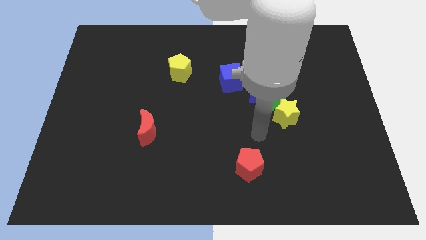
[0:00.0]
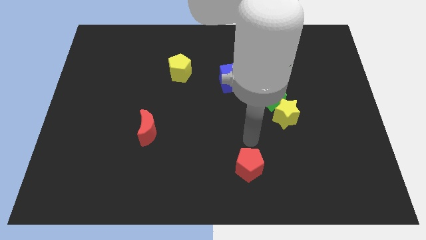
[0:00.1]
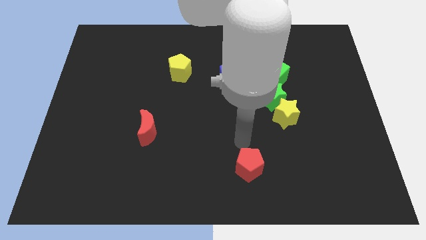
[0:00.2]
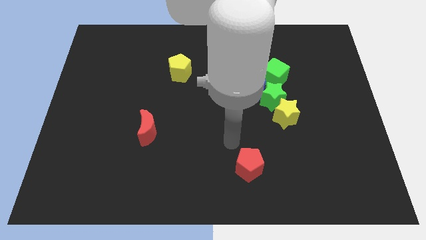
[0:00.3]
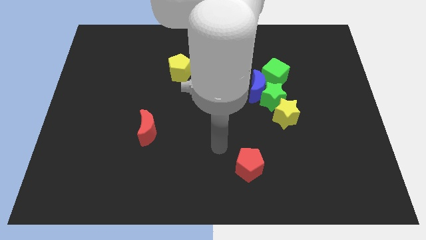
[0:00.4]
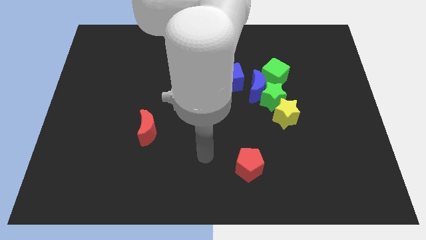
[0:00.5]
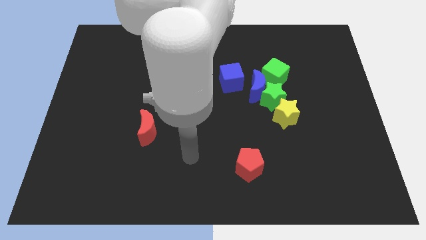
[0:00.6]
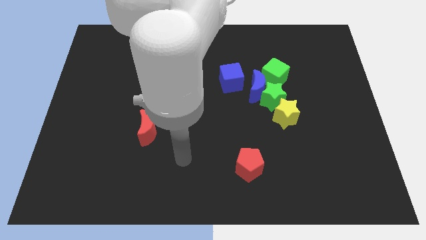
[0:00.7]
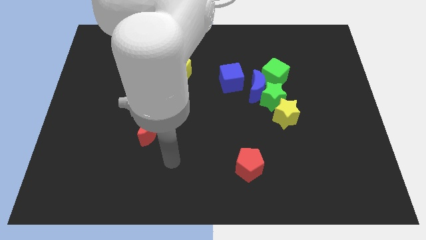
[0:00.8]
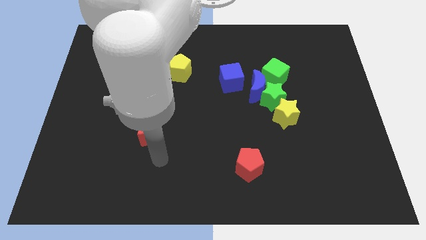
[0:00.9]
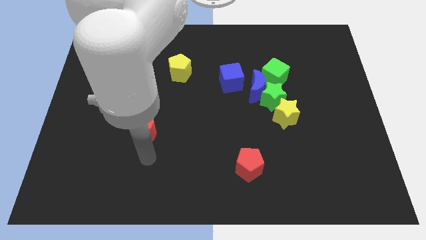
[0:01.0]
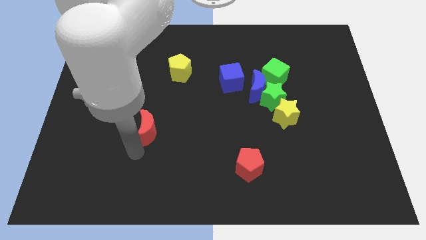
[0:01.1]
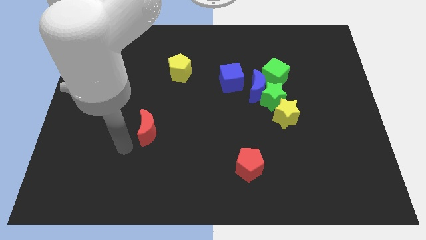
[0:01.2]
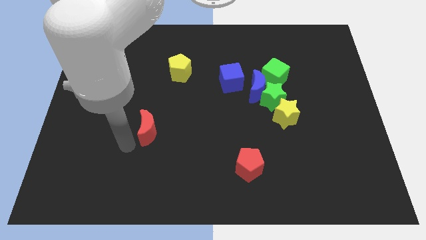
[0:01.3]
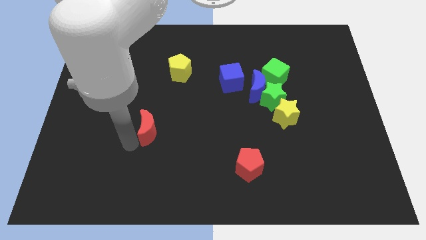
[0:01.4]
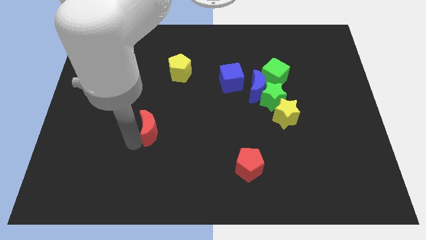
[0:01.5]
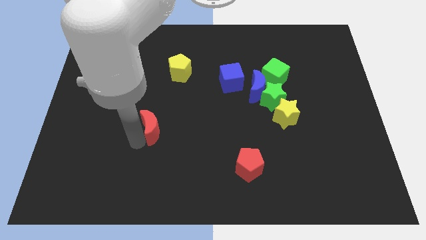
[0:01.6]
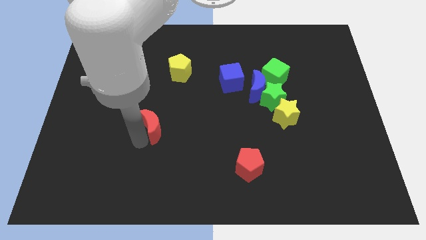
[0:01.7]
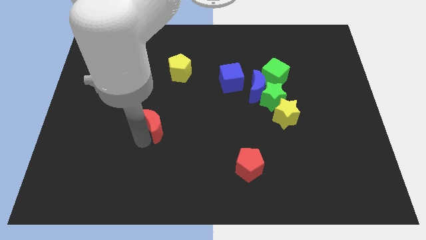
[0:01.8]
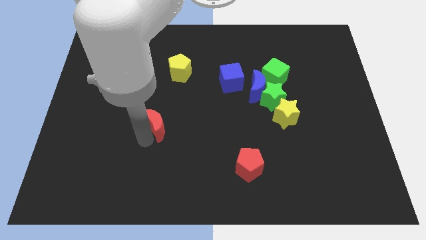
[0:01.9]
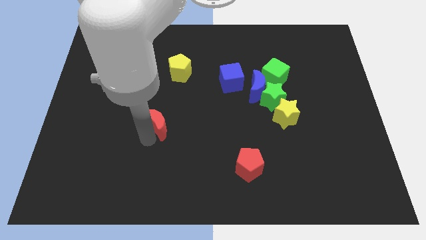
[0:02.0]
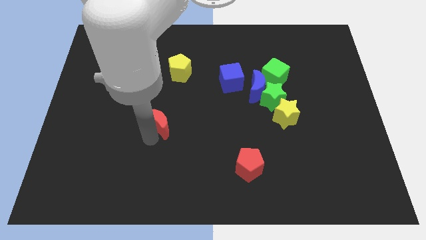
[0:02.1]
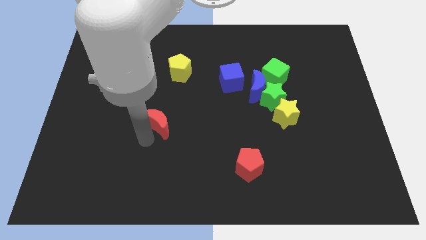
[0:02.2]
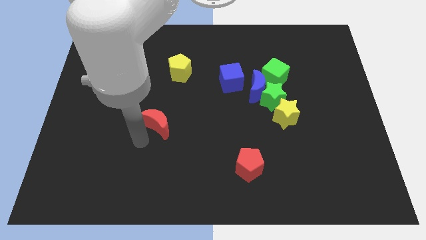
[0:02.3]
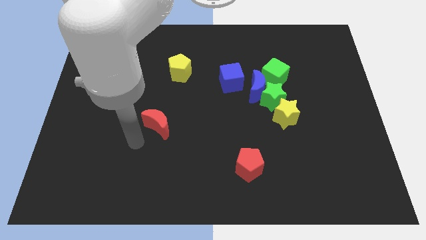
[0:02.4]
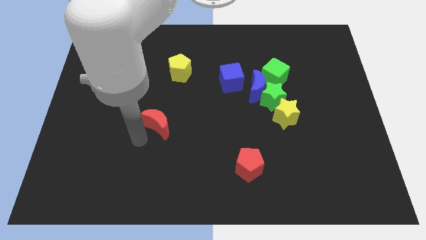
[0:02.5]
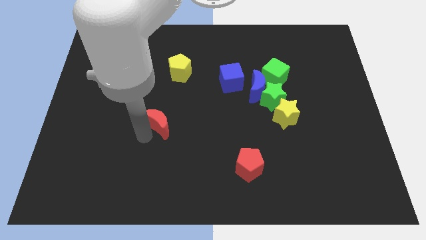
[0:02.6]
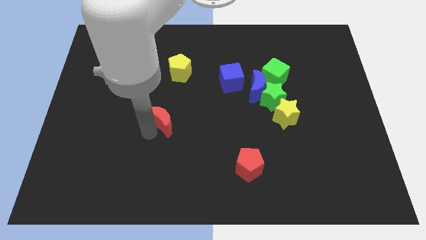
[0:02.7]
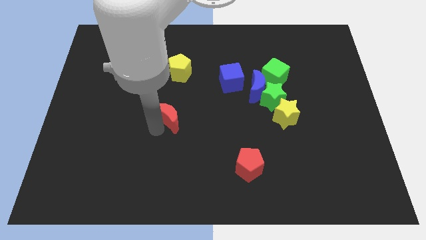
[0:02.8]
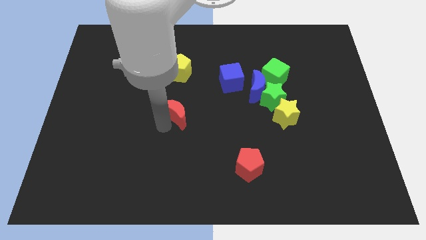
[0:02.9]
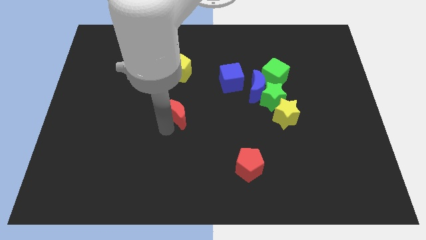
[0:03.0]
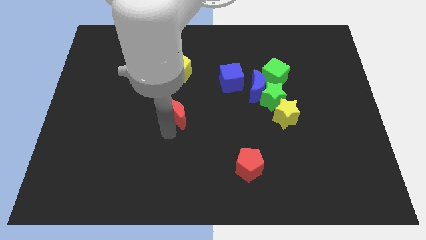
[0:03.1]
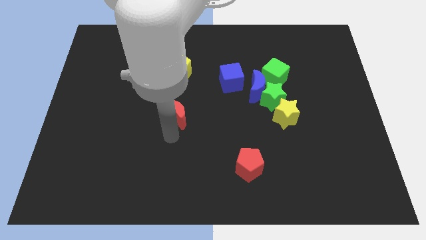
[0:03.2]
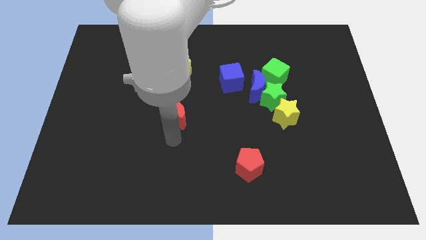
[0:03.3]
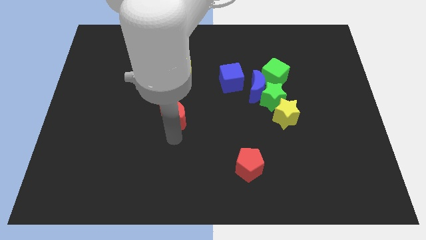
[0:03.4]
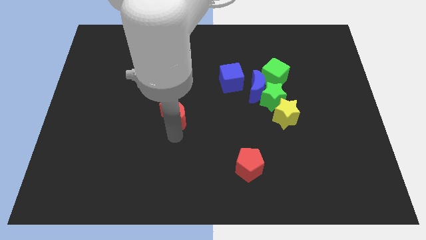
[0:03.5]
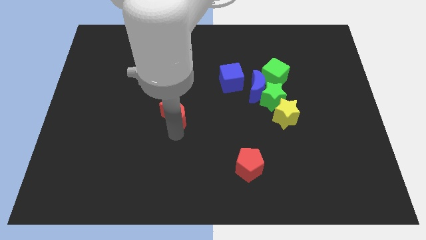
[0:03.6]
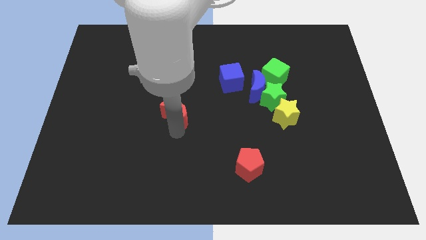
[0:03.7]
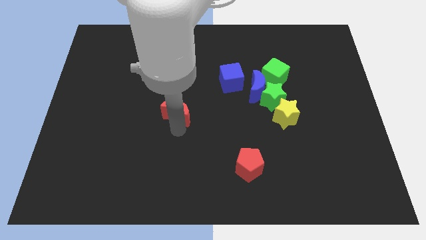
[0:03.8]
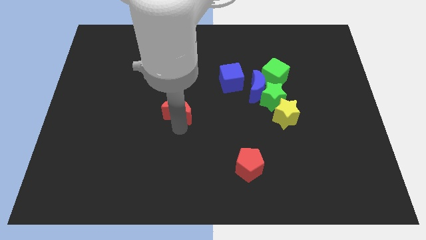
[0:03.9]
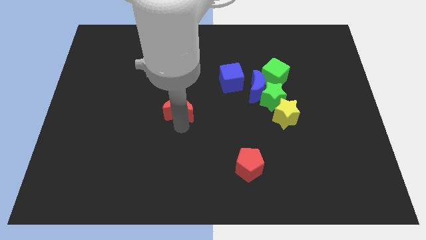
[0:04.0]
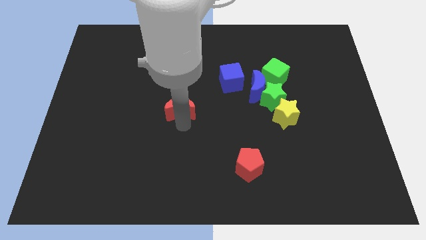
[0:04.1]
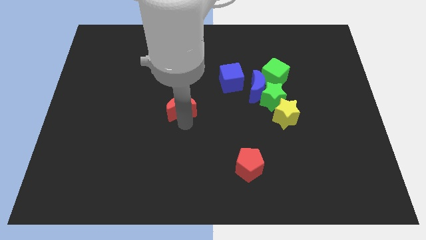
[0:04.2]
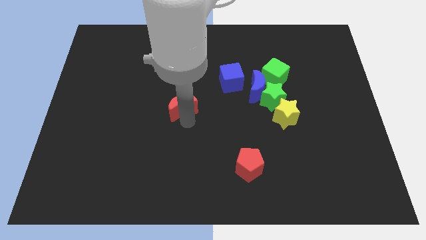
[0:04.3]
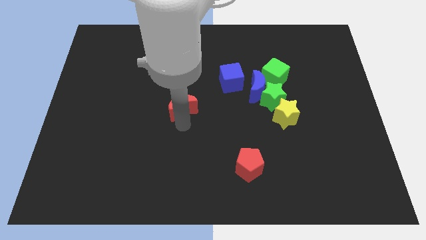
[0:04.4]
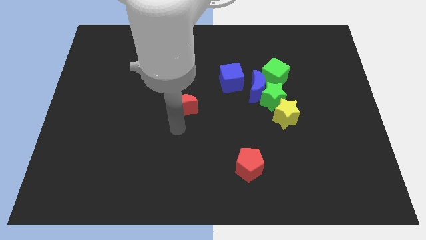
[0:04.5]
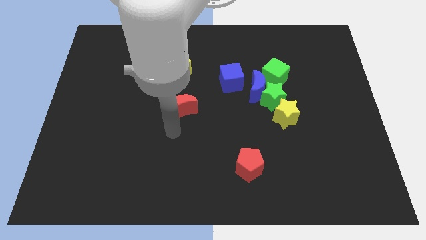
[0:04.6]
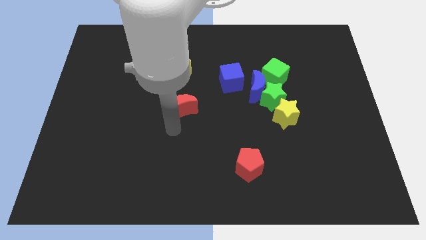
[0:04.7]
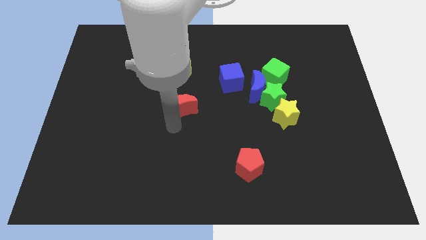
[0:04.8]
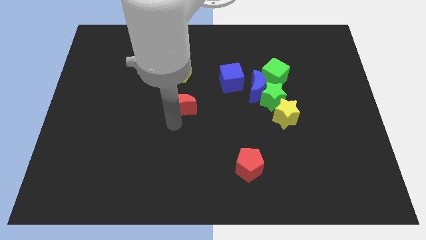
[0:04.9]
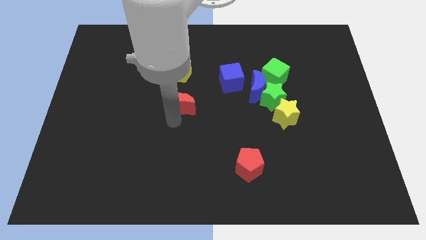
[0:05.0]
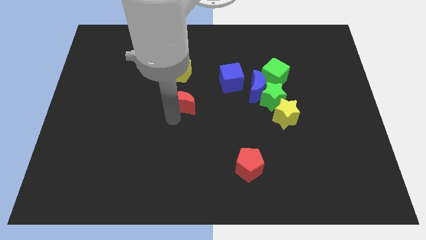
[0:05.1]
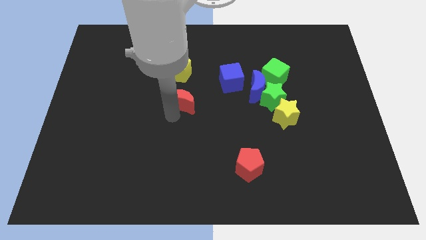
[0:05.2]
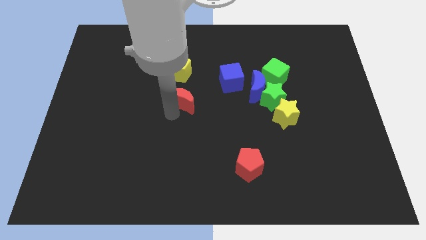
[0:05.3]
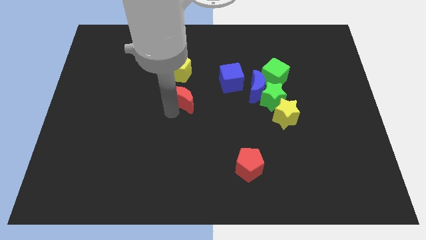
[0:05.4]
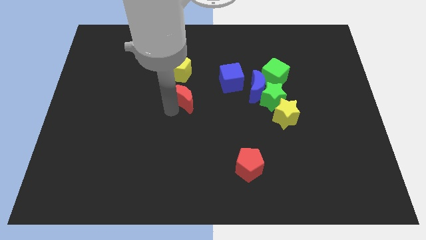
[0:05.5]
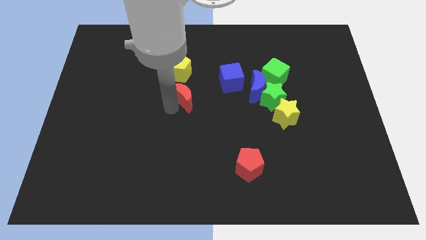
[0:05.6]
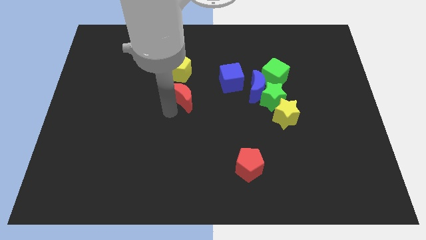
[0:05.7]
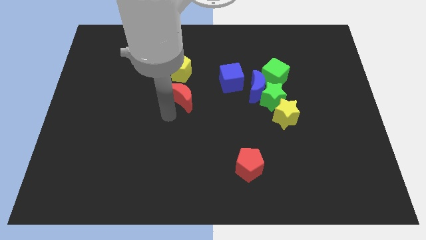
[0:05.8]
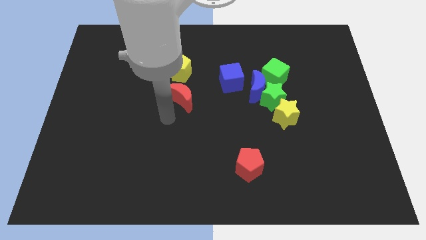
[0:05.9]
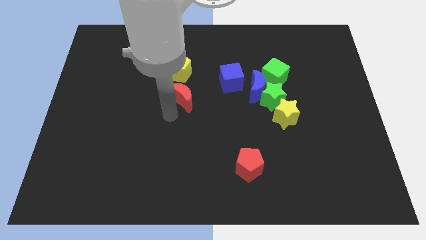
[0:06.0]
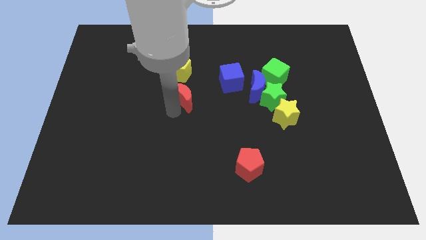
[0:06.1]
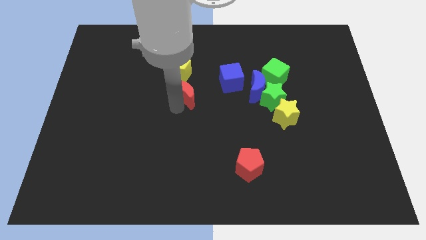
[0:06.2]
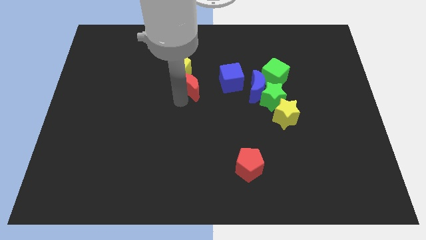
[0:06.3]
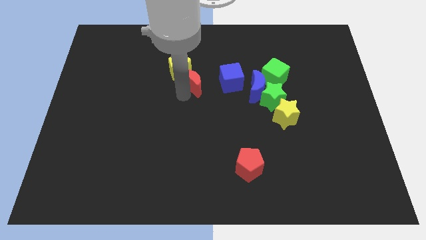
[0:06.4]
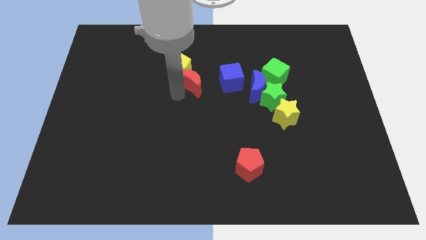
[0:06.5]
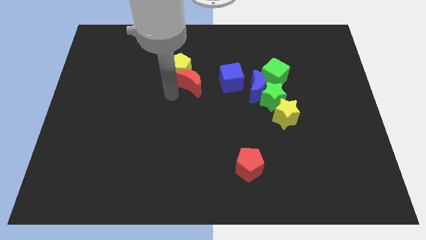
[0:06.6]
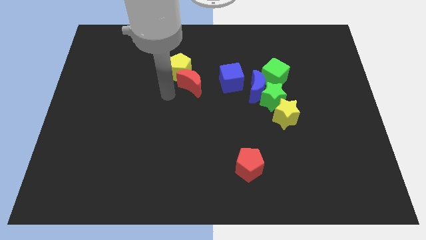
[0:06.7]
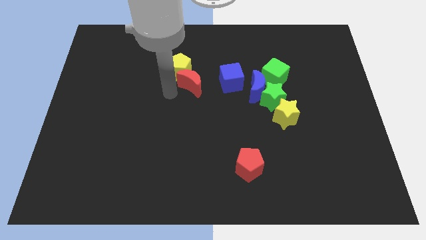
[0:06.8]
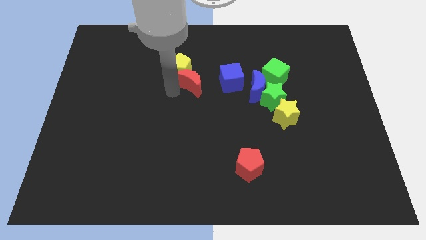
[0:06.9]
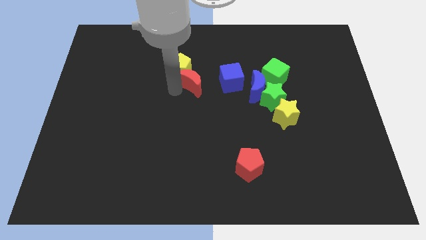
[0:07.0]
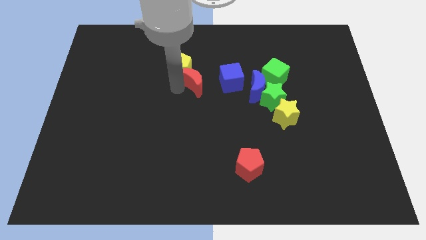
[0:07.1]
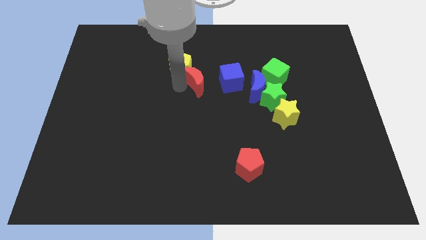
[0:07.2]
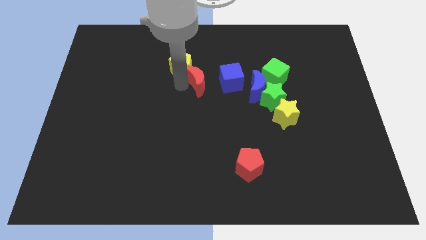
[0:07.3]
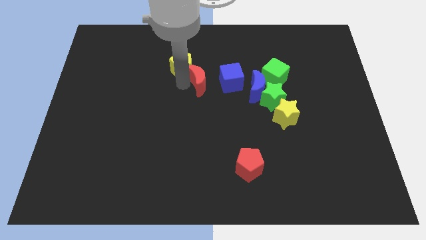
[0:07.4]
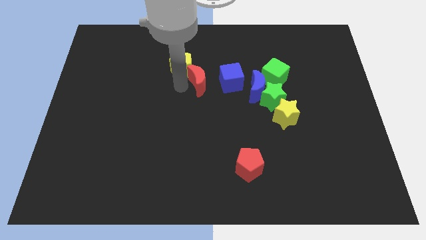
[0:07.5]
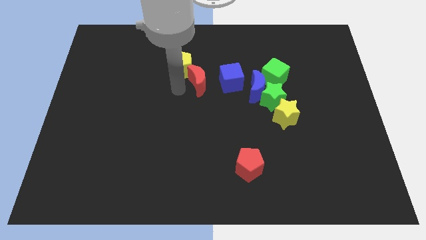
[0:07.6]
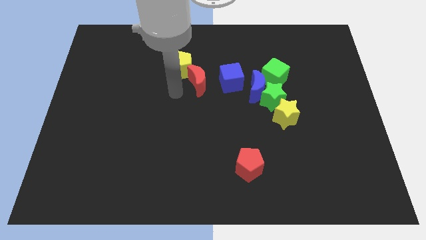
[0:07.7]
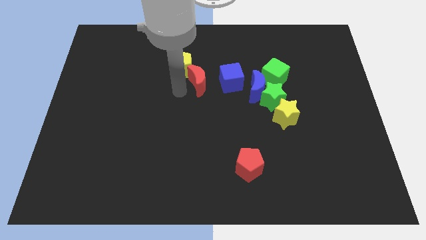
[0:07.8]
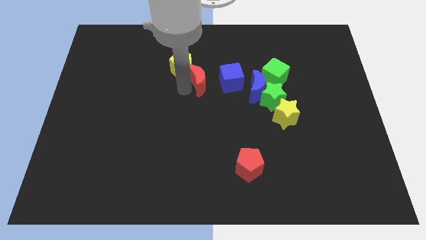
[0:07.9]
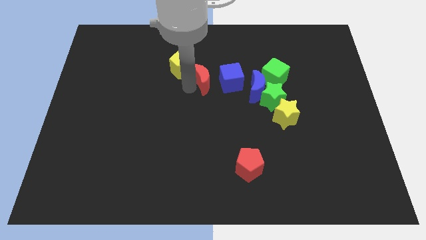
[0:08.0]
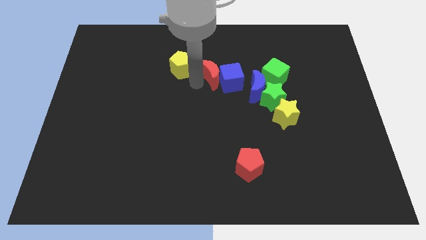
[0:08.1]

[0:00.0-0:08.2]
put the red moon to the left of the green cube
